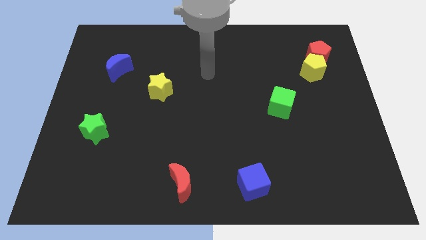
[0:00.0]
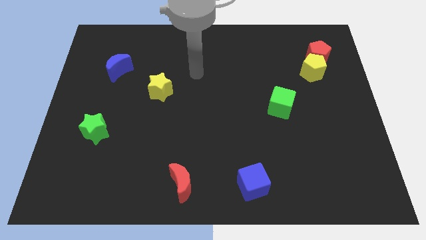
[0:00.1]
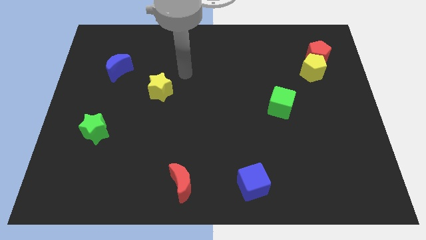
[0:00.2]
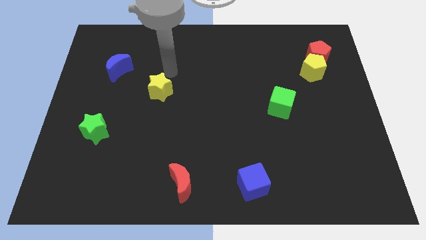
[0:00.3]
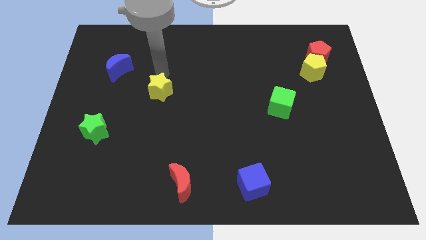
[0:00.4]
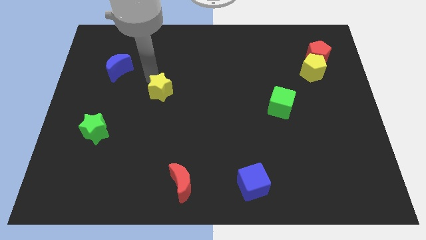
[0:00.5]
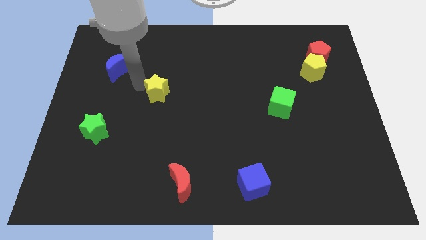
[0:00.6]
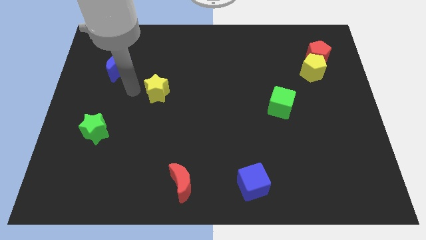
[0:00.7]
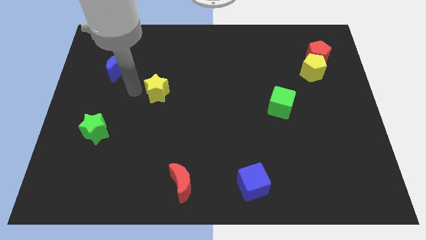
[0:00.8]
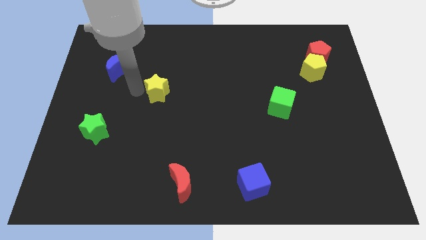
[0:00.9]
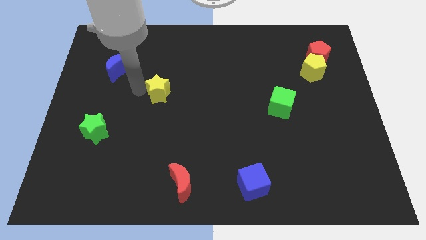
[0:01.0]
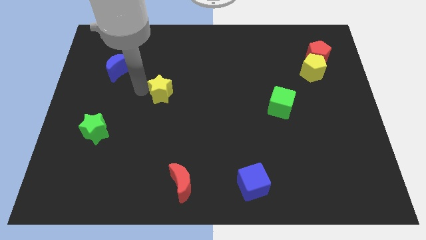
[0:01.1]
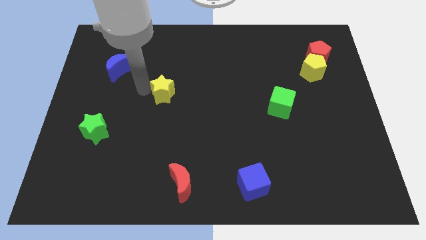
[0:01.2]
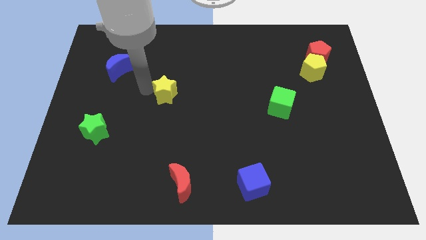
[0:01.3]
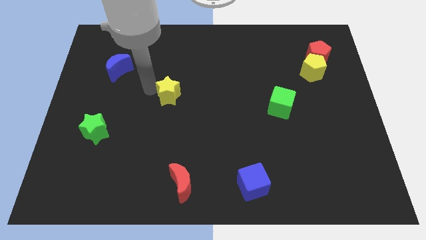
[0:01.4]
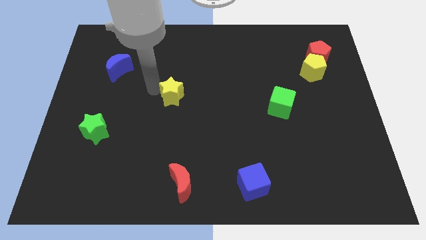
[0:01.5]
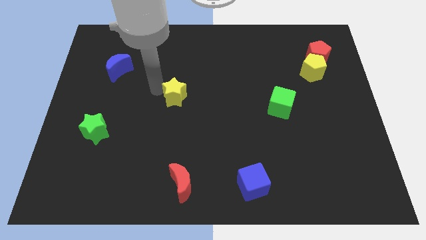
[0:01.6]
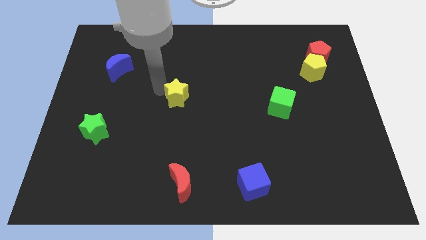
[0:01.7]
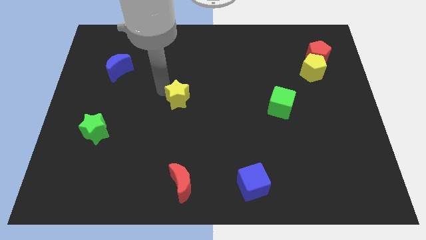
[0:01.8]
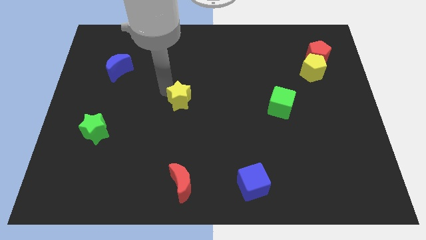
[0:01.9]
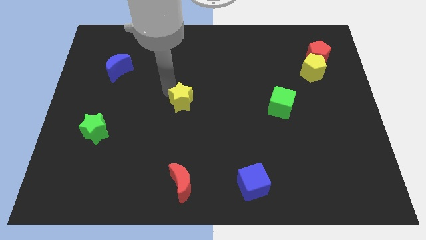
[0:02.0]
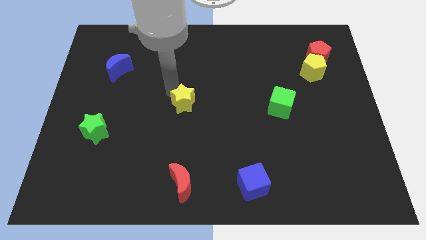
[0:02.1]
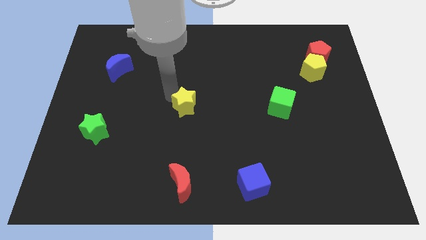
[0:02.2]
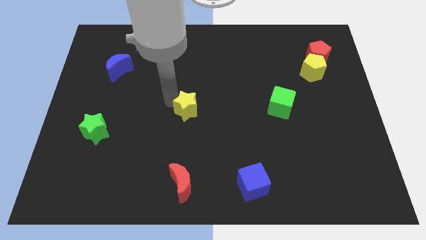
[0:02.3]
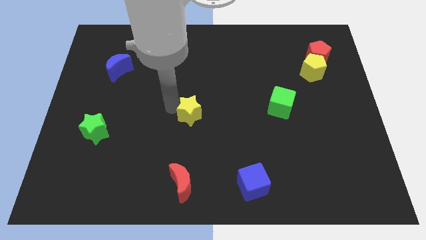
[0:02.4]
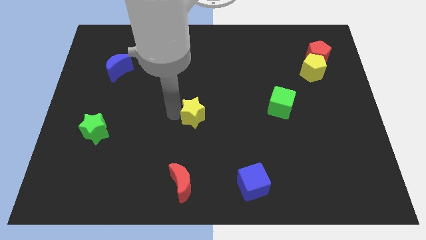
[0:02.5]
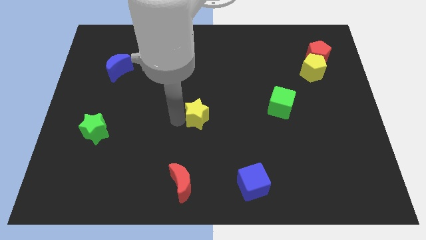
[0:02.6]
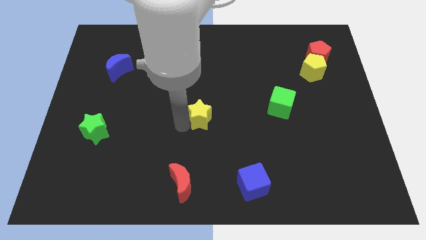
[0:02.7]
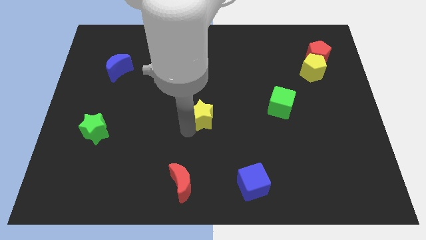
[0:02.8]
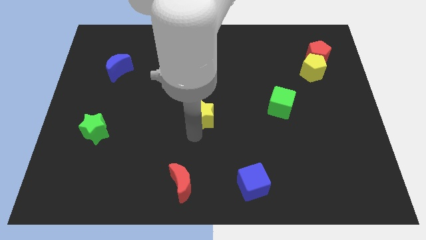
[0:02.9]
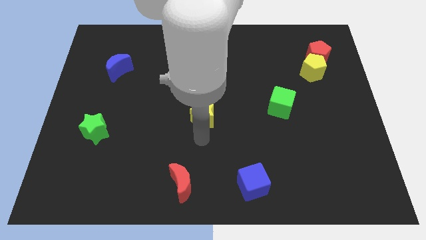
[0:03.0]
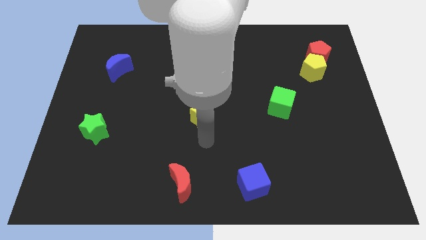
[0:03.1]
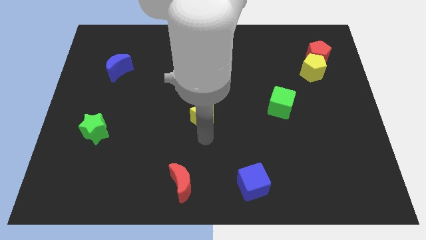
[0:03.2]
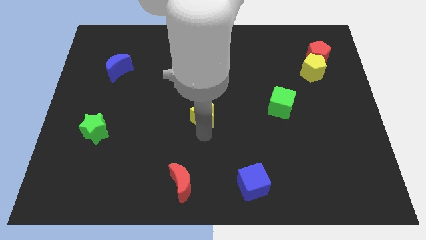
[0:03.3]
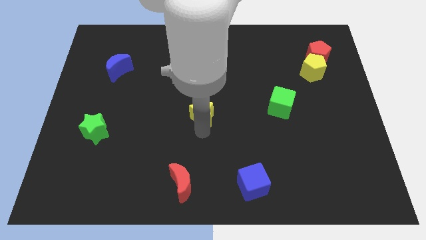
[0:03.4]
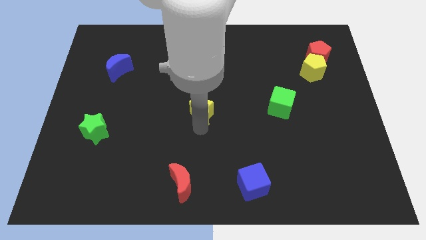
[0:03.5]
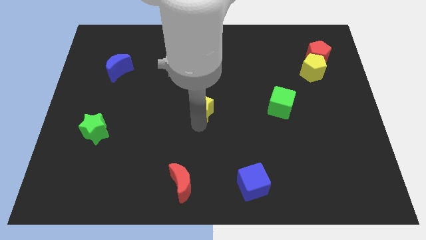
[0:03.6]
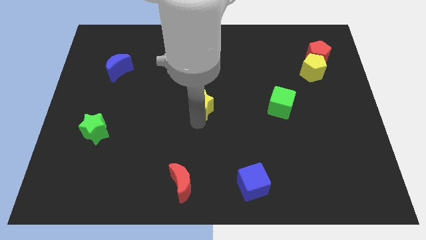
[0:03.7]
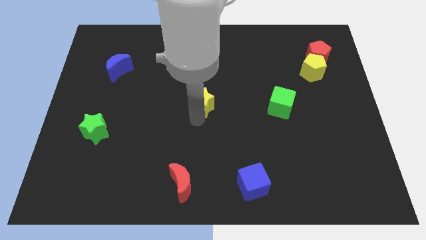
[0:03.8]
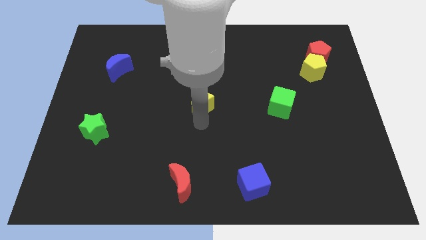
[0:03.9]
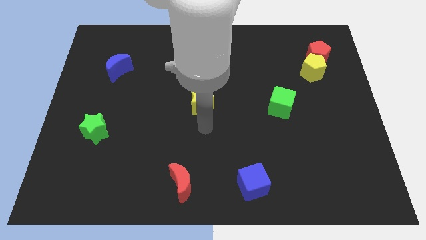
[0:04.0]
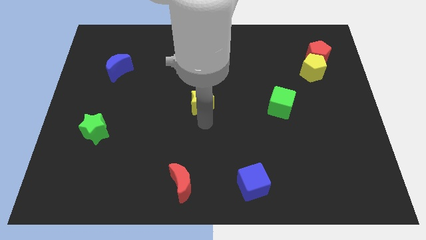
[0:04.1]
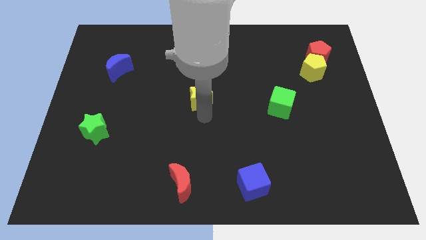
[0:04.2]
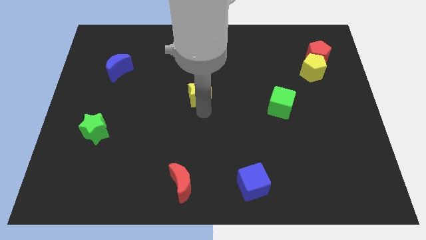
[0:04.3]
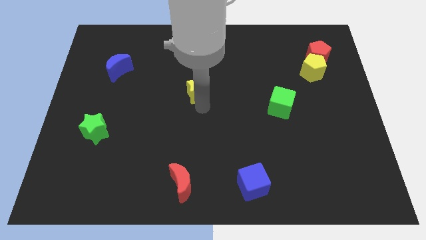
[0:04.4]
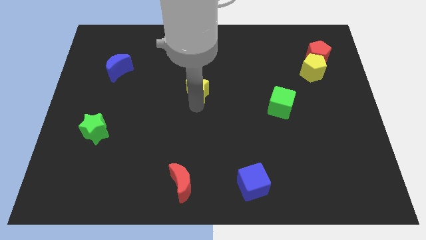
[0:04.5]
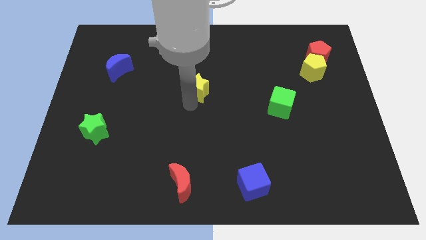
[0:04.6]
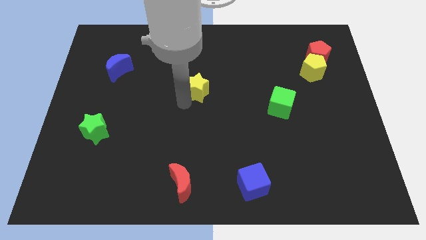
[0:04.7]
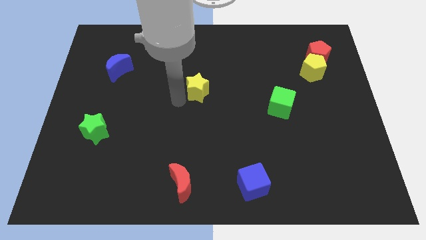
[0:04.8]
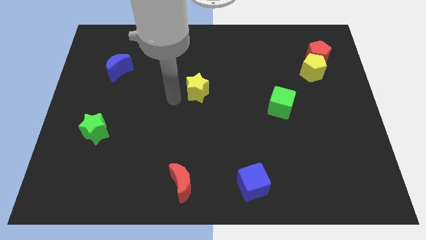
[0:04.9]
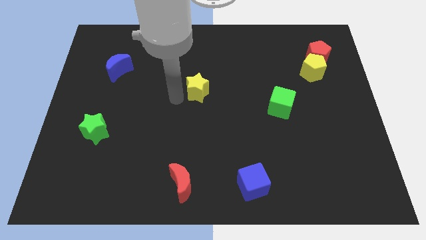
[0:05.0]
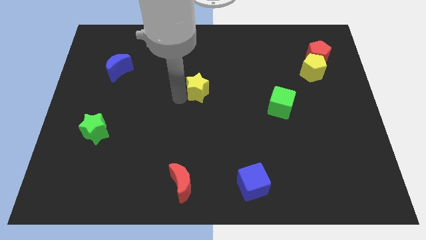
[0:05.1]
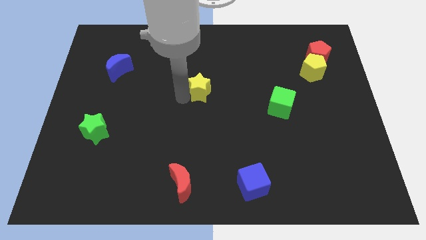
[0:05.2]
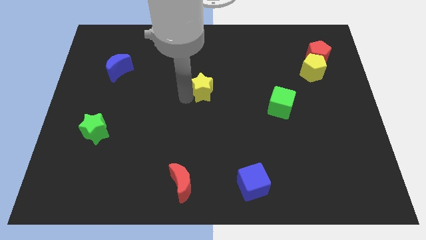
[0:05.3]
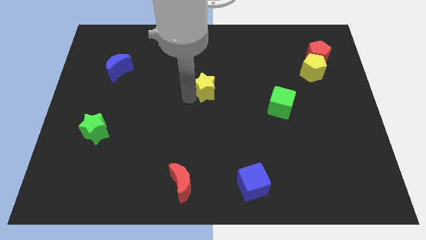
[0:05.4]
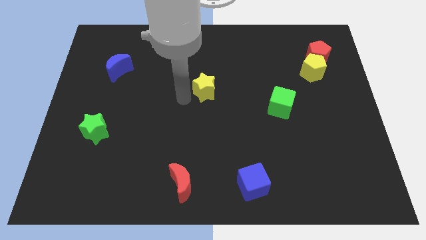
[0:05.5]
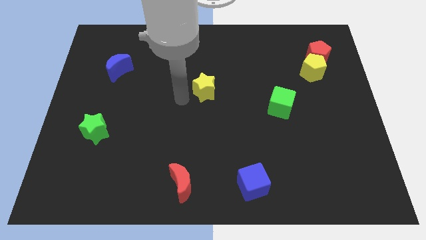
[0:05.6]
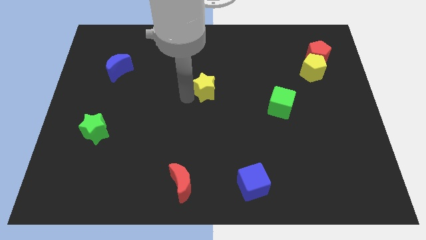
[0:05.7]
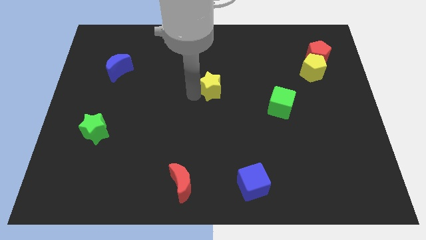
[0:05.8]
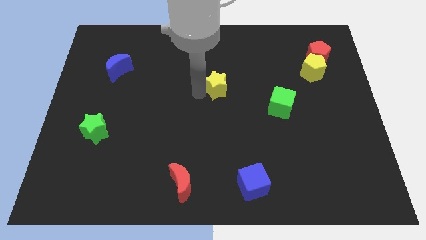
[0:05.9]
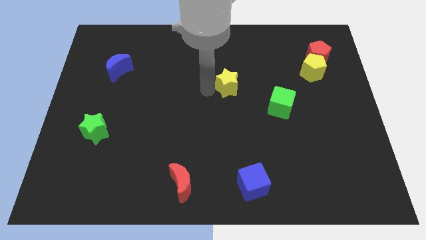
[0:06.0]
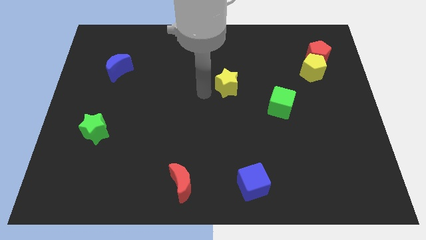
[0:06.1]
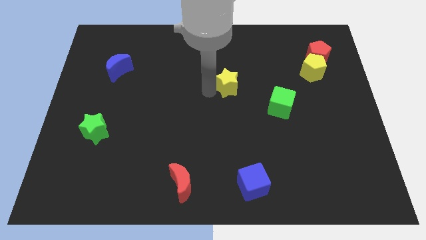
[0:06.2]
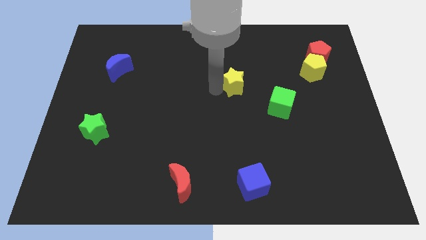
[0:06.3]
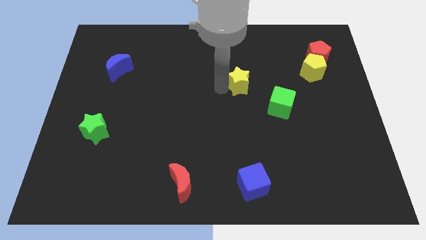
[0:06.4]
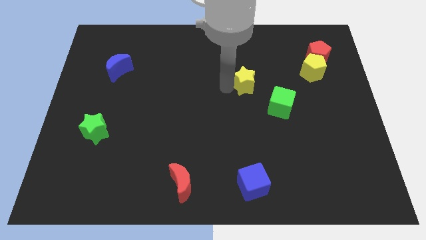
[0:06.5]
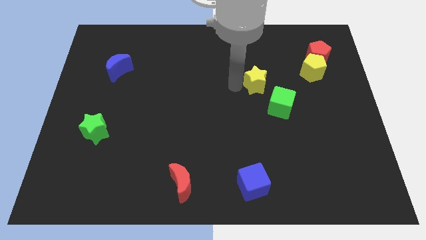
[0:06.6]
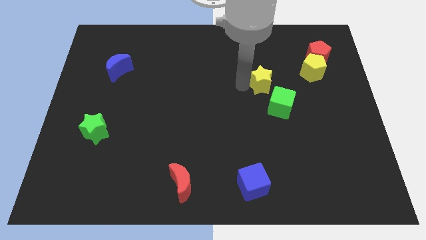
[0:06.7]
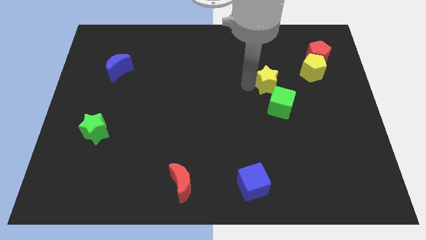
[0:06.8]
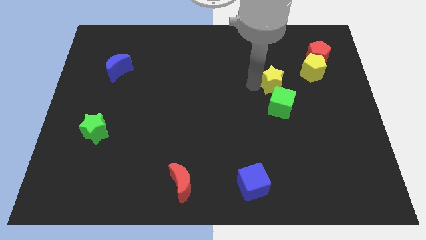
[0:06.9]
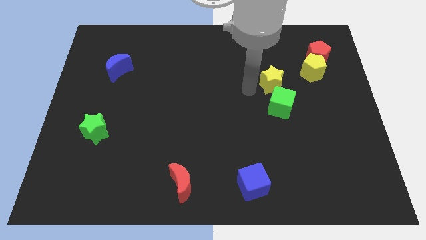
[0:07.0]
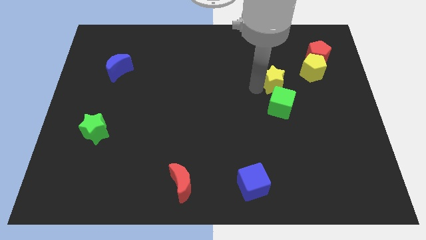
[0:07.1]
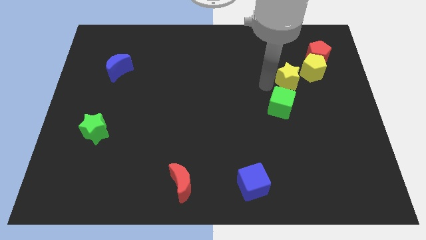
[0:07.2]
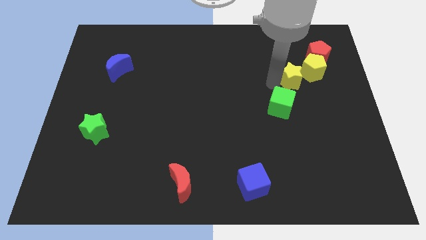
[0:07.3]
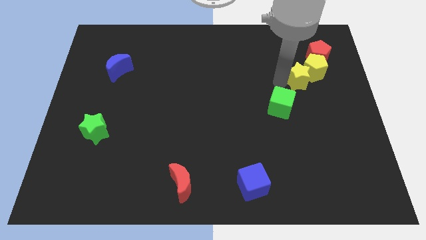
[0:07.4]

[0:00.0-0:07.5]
push the yellow star to the yellow pentagon
